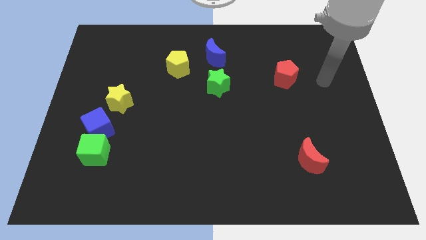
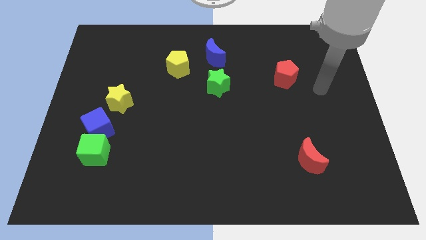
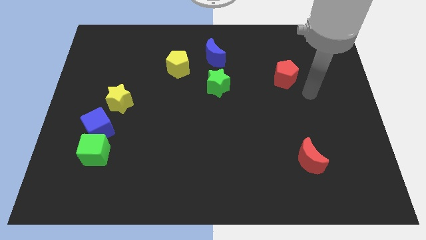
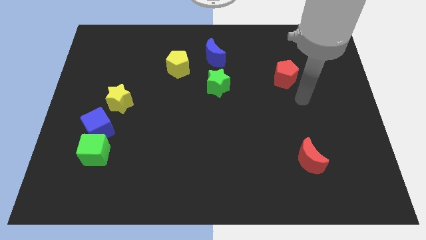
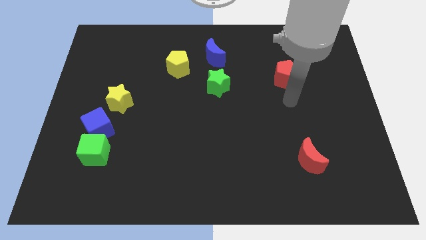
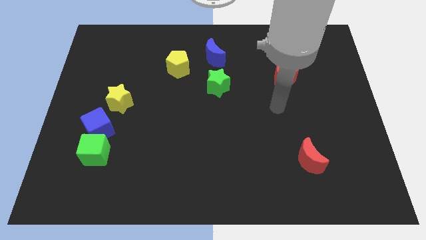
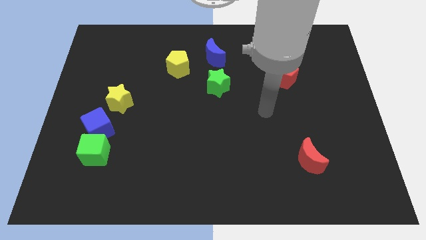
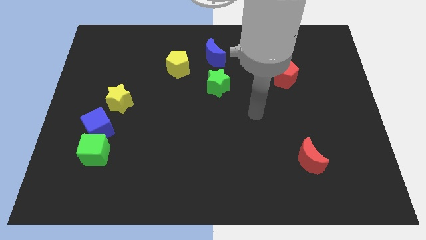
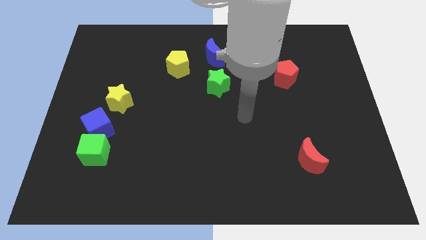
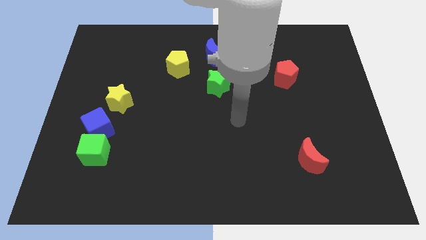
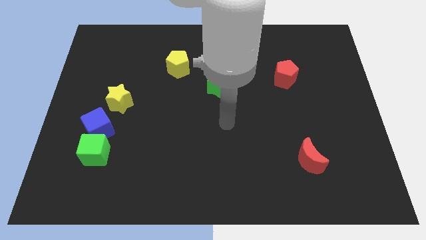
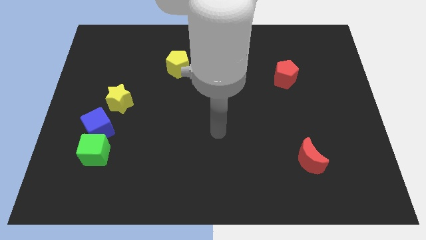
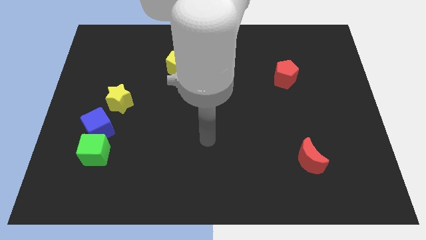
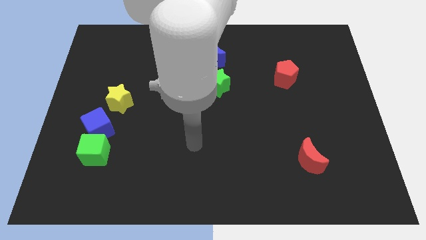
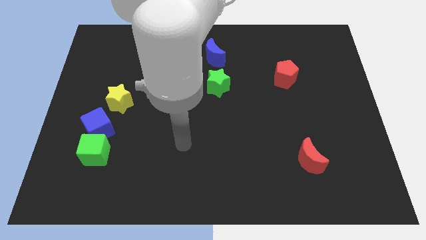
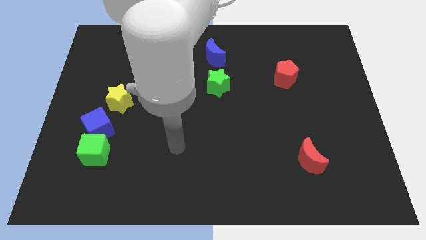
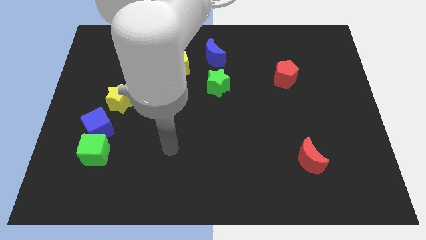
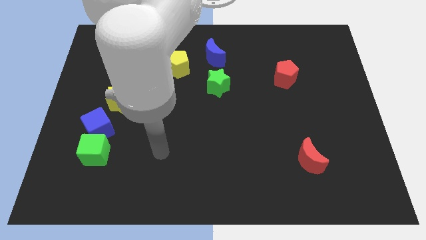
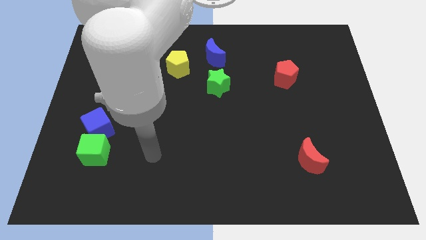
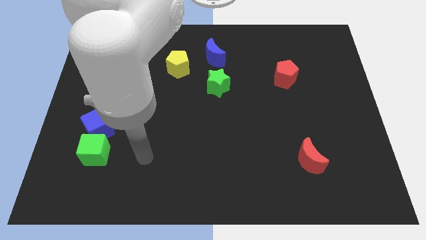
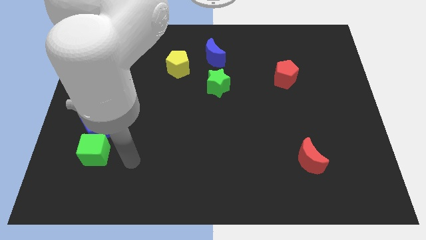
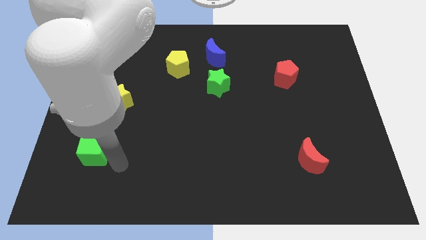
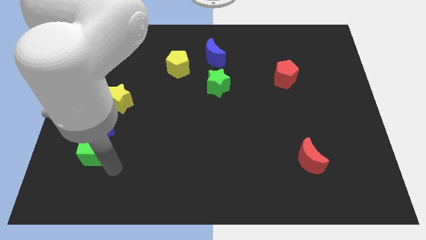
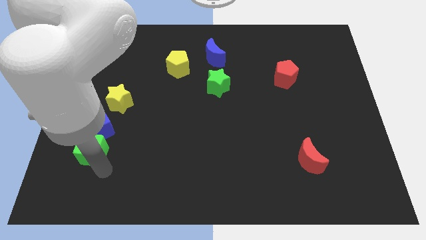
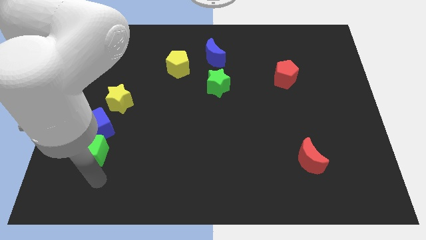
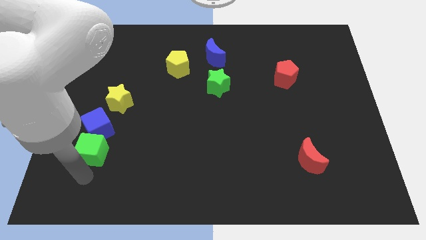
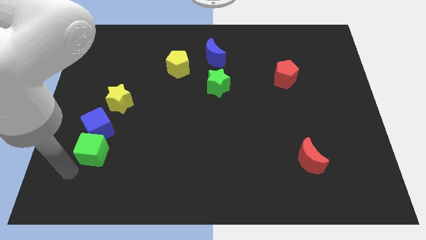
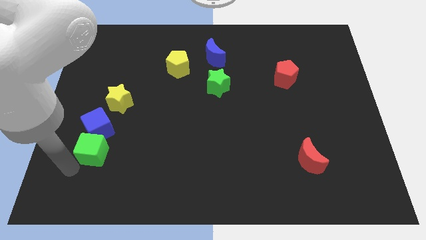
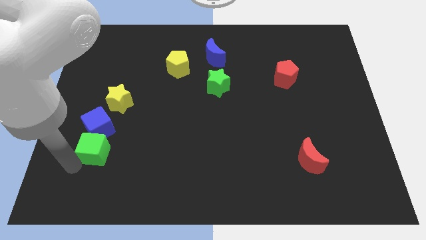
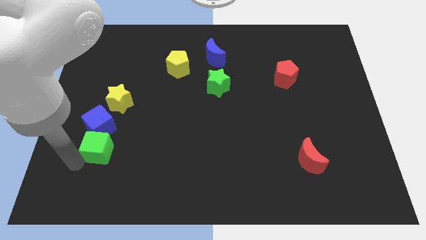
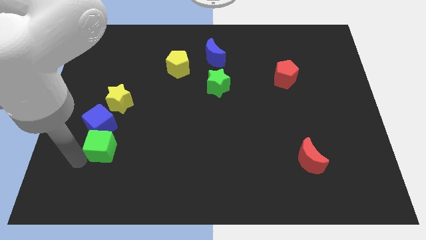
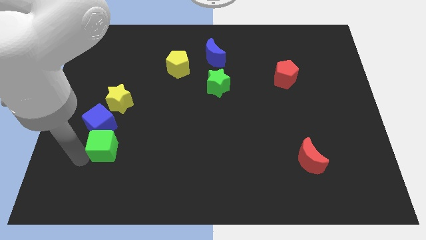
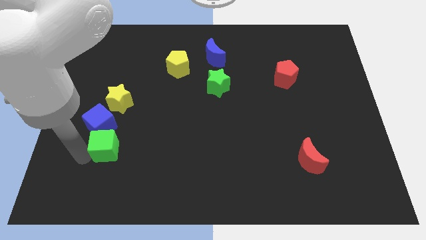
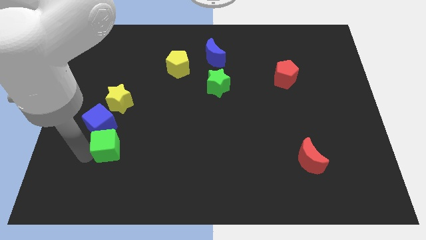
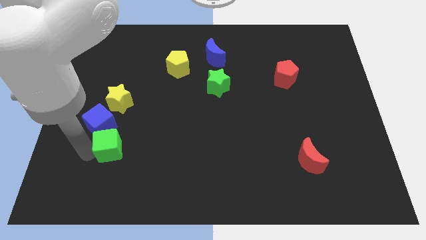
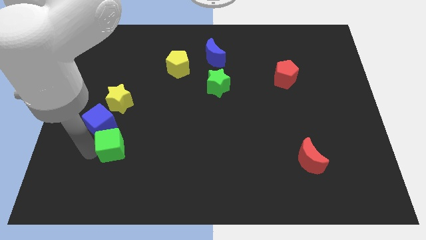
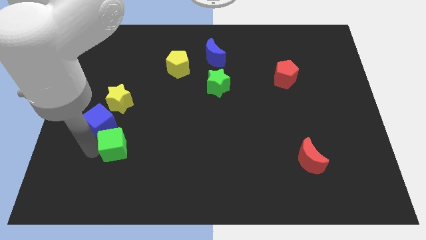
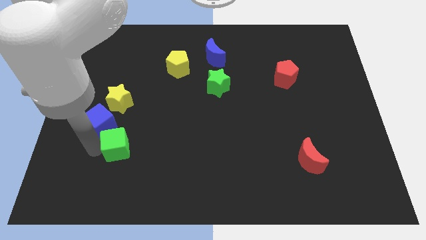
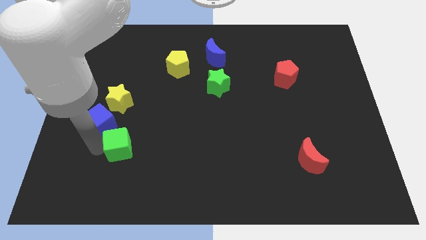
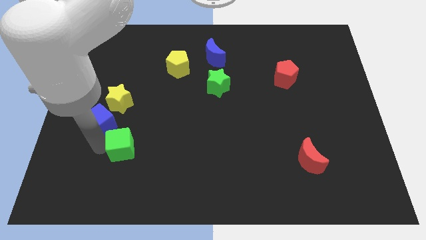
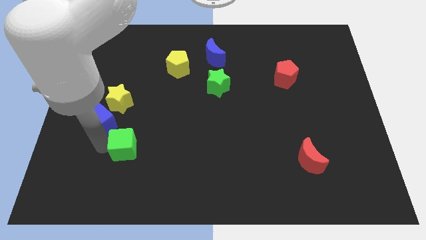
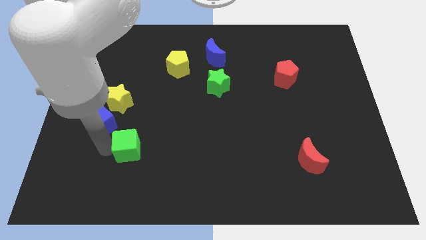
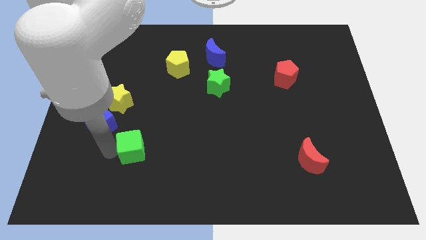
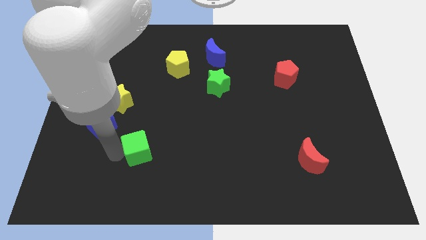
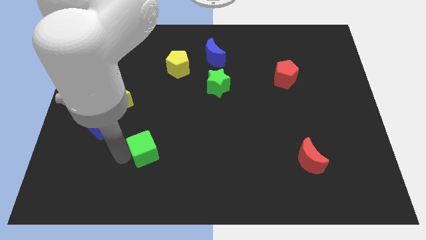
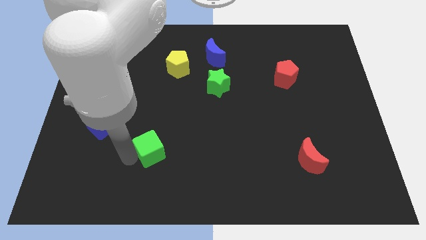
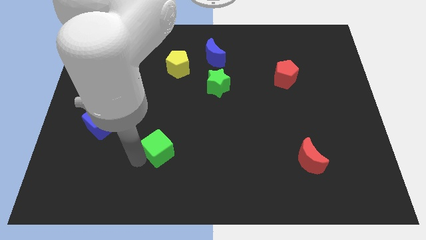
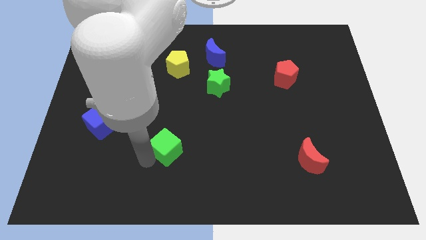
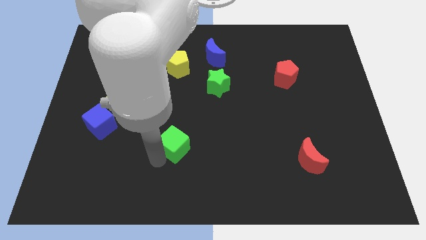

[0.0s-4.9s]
slide the green cube upwards and to the right a little

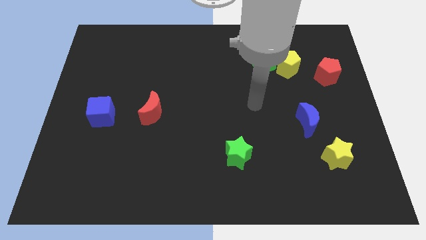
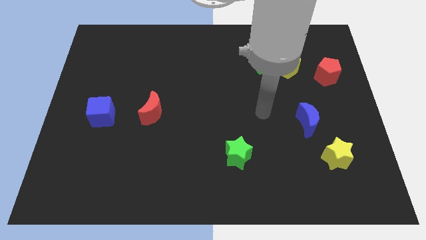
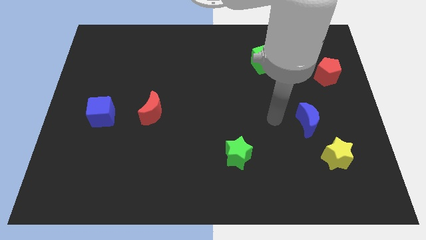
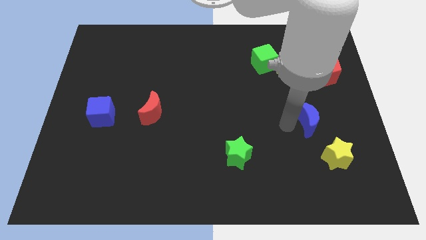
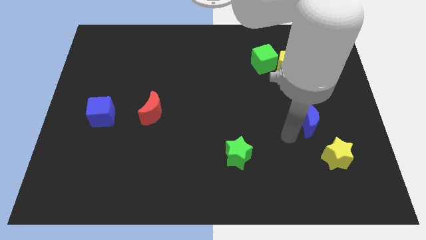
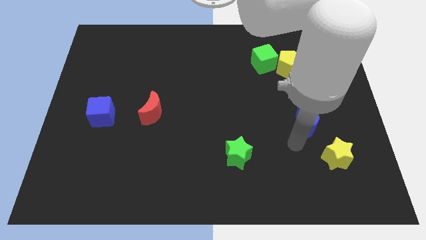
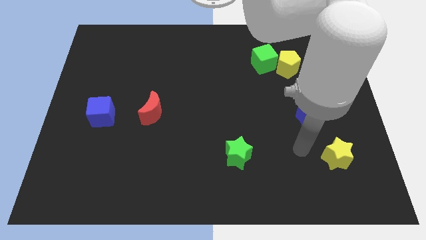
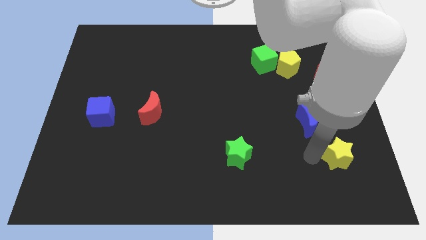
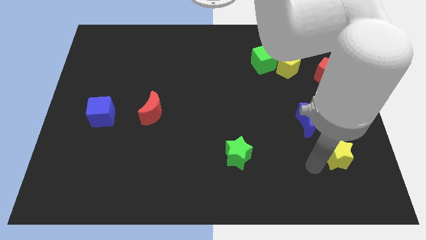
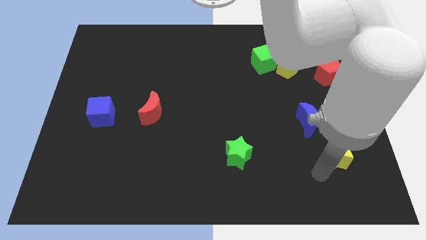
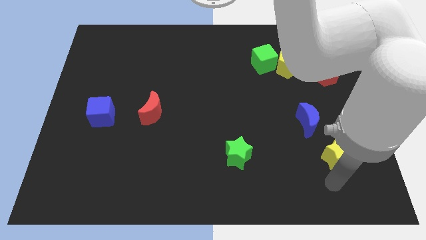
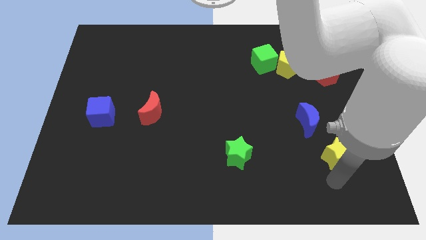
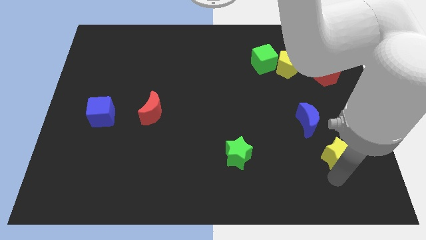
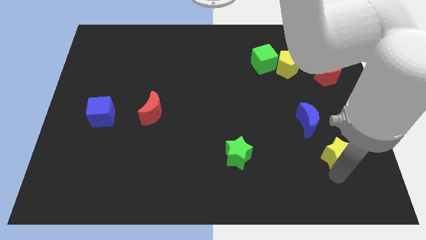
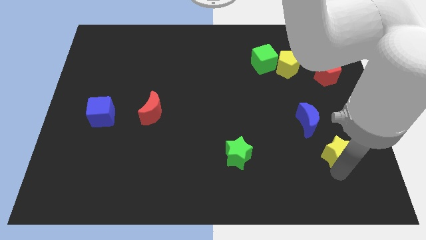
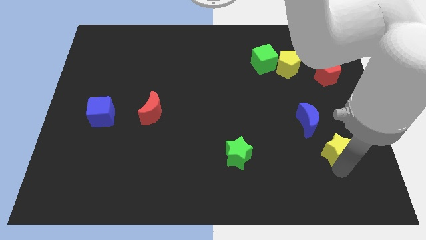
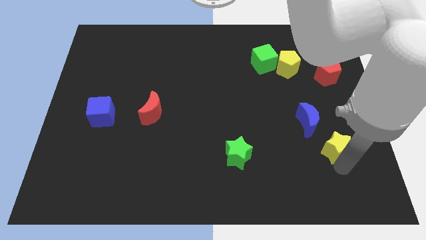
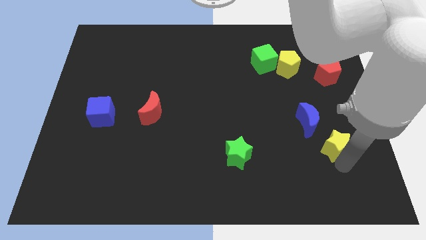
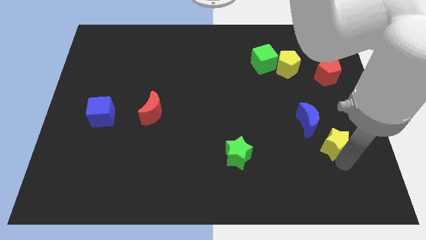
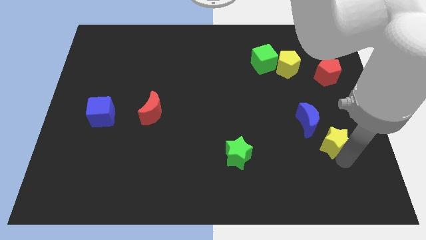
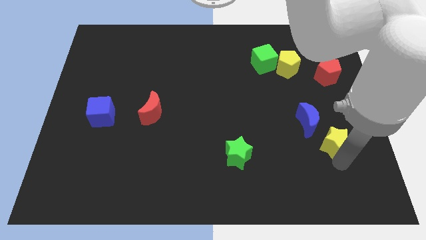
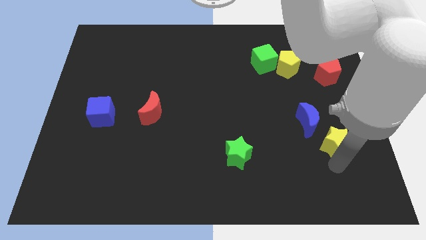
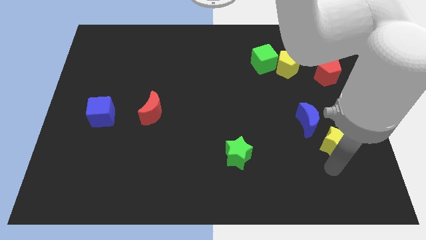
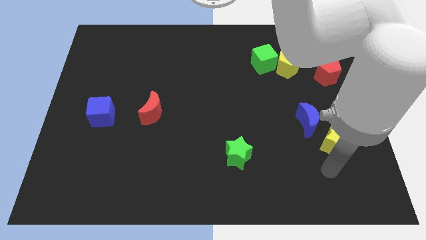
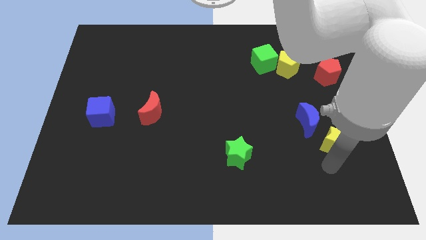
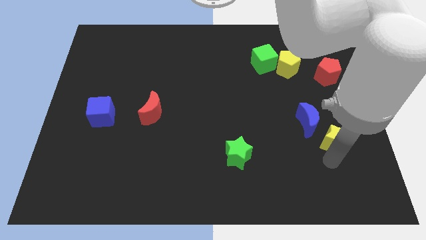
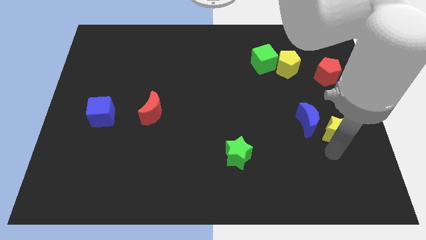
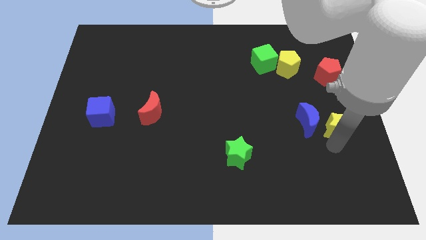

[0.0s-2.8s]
push the yellow star up a bit

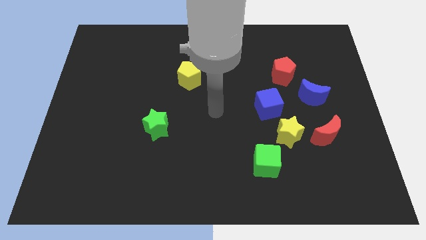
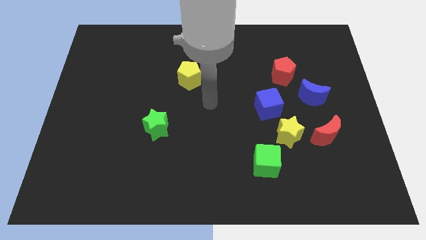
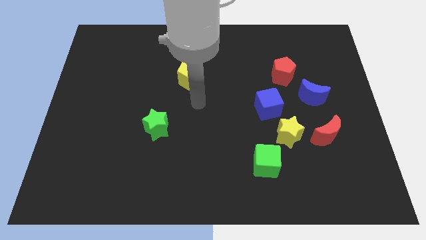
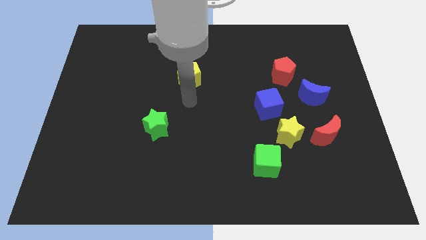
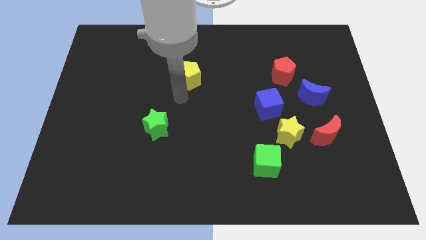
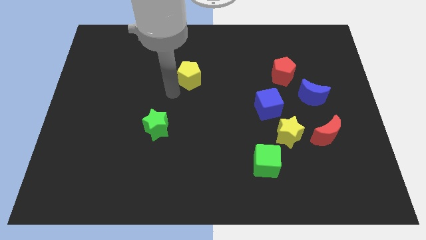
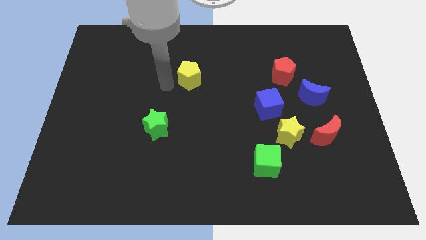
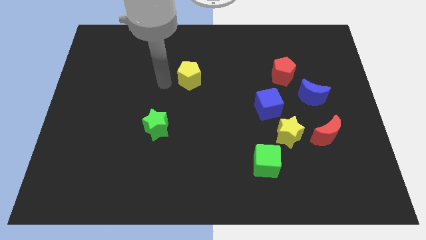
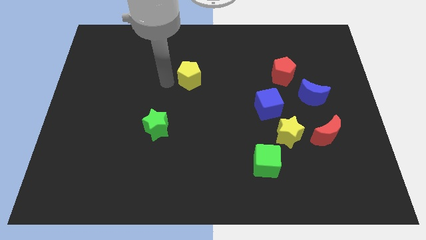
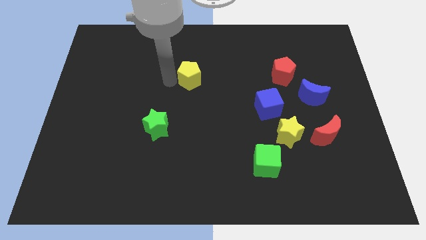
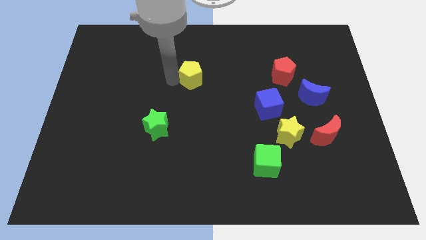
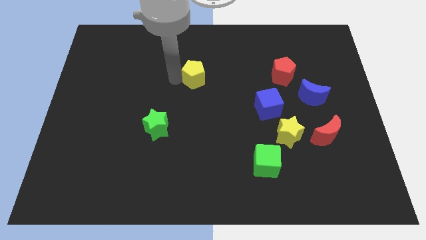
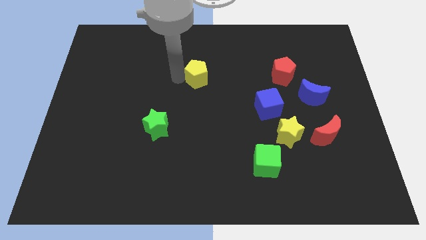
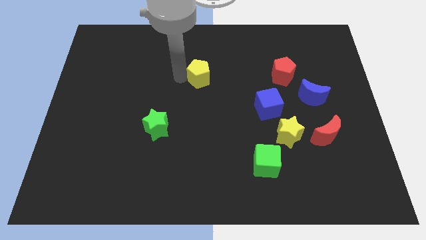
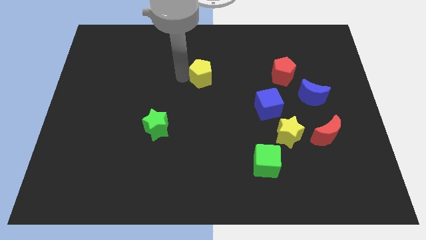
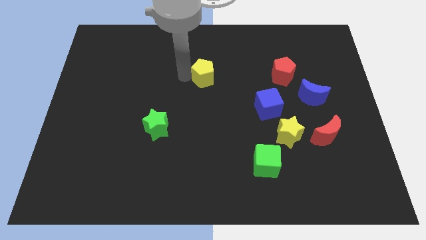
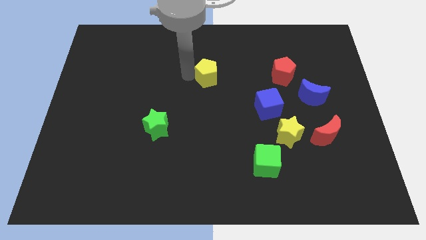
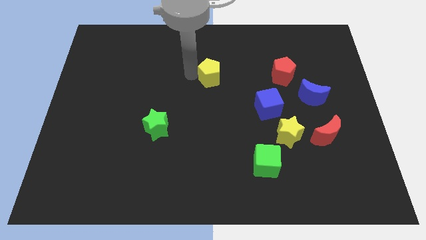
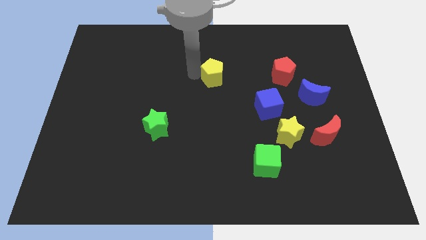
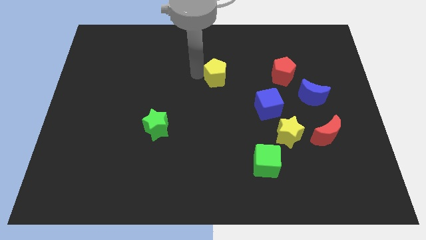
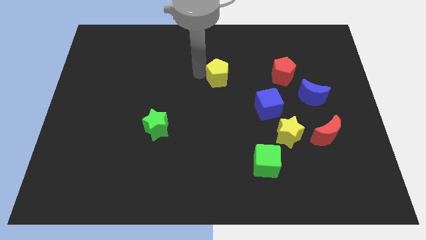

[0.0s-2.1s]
move the yellow pentagon to the right a little bit
